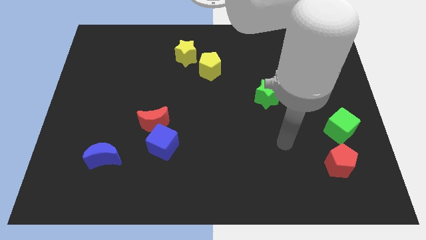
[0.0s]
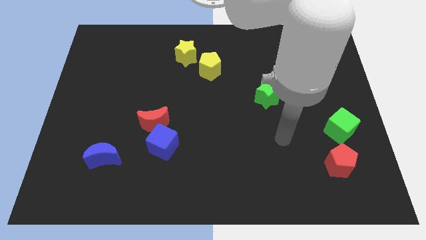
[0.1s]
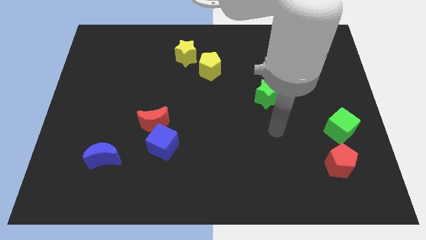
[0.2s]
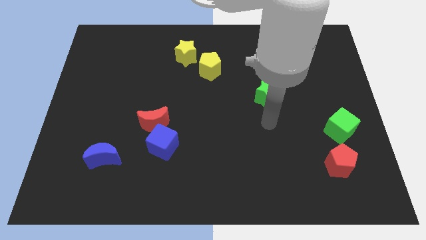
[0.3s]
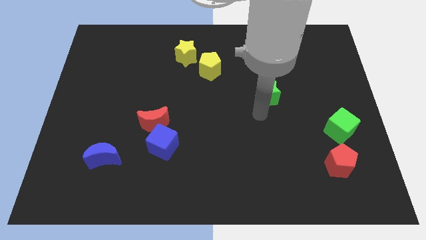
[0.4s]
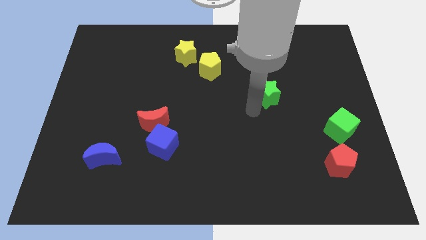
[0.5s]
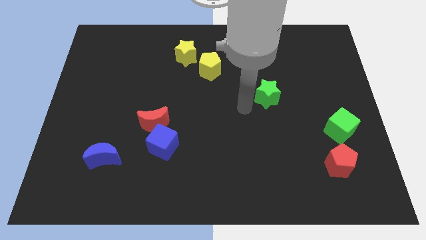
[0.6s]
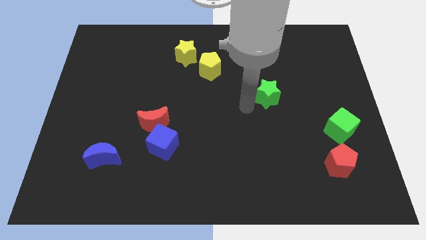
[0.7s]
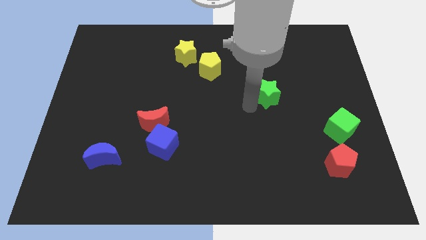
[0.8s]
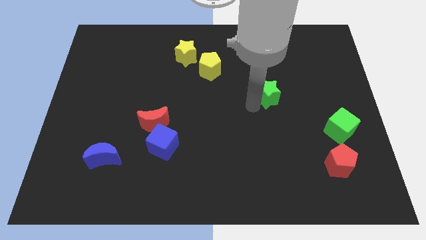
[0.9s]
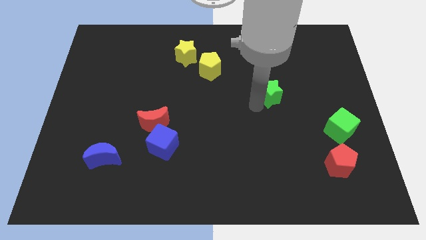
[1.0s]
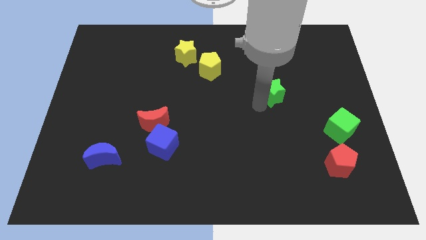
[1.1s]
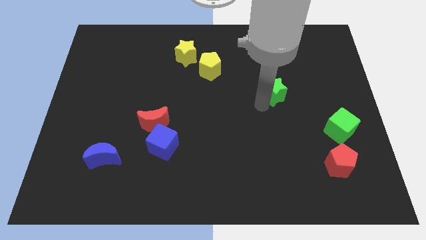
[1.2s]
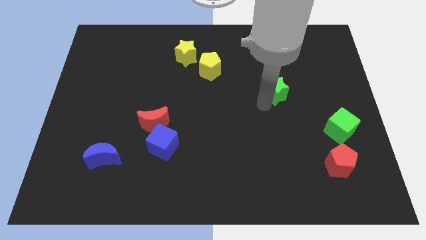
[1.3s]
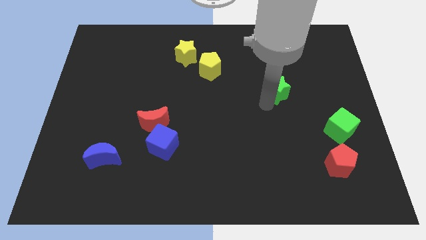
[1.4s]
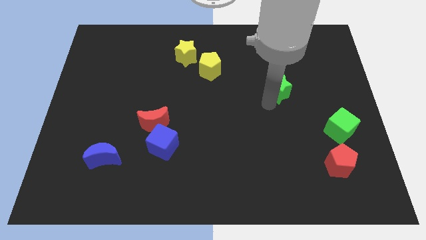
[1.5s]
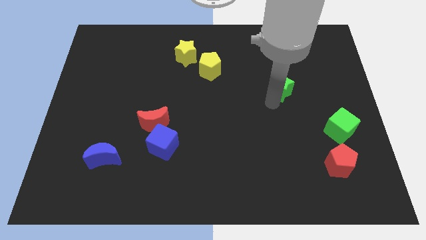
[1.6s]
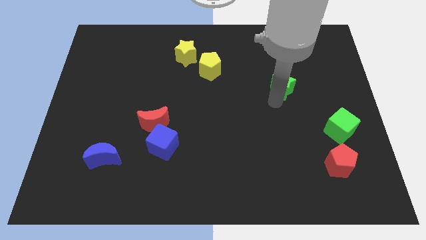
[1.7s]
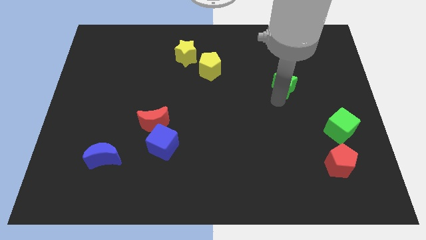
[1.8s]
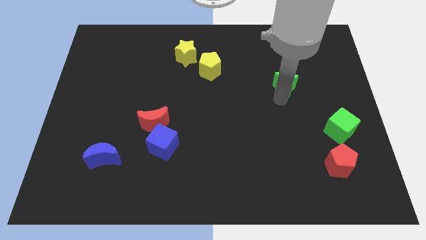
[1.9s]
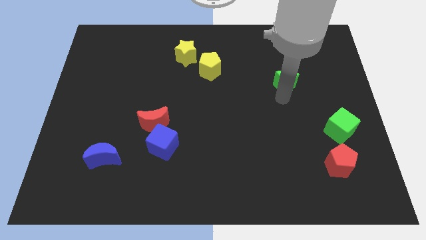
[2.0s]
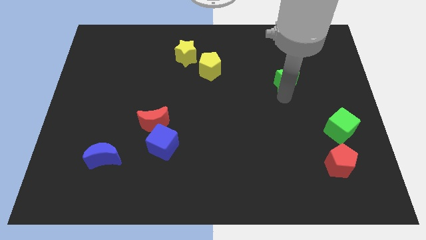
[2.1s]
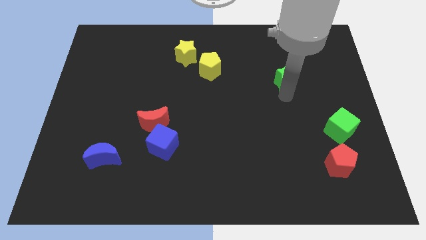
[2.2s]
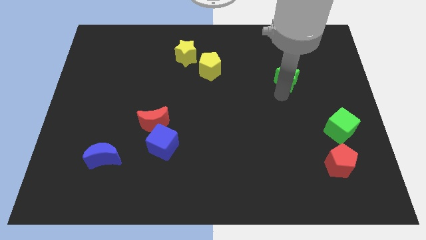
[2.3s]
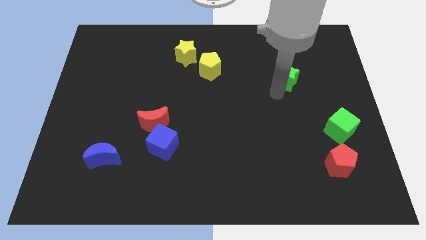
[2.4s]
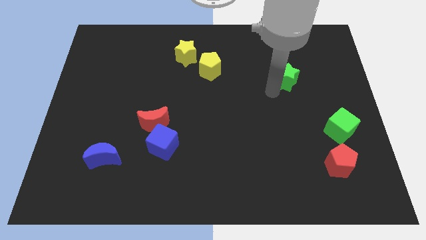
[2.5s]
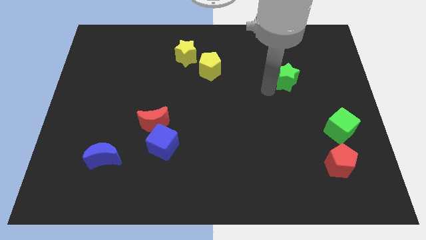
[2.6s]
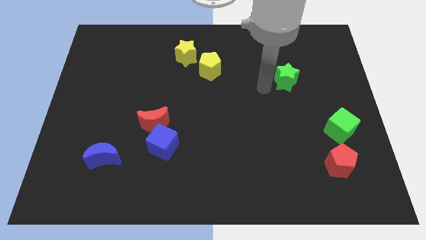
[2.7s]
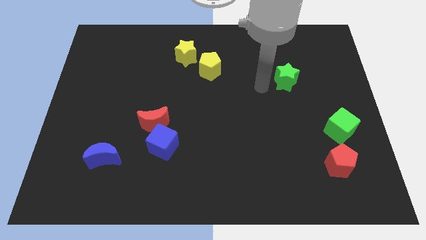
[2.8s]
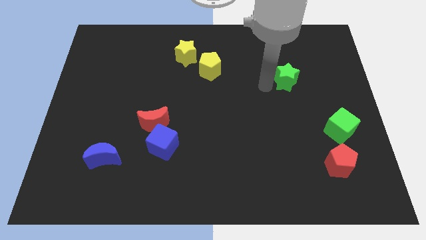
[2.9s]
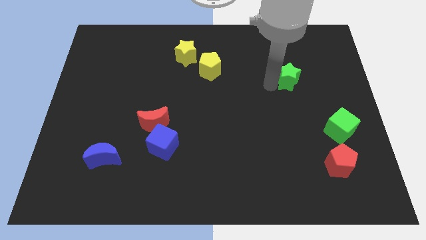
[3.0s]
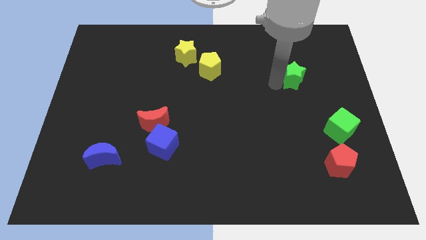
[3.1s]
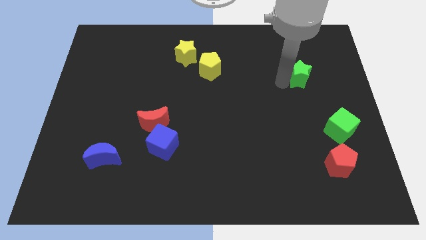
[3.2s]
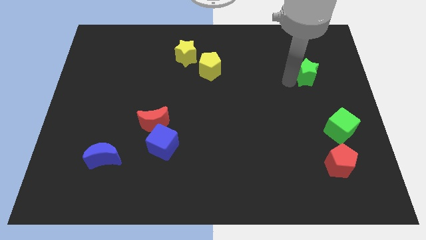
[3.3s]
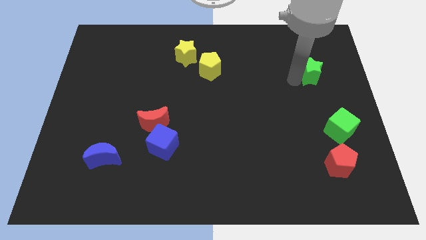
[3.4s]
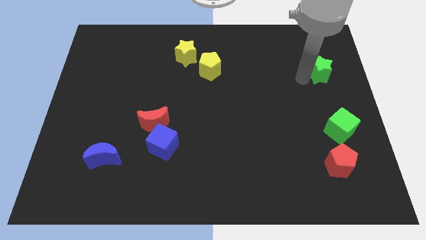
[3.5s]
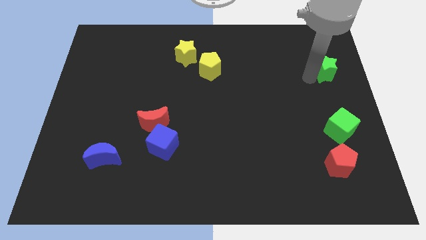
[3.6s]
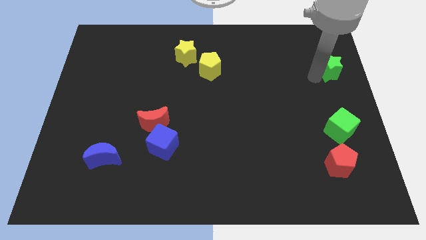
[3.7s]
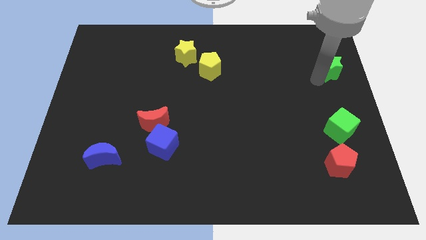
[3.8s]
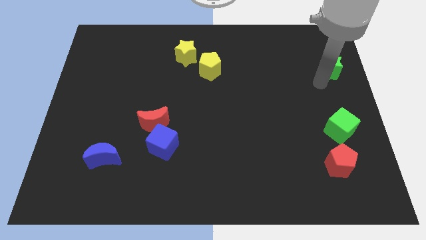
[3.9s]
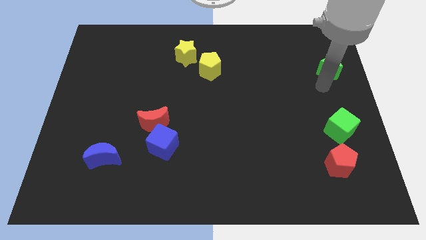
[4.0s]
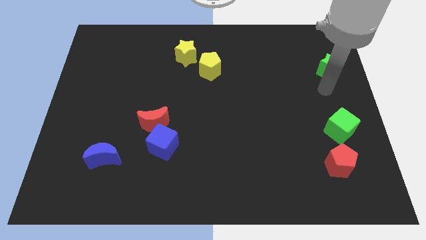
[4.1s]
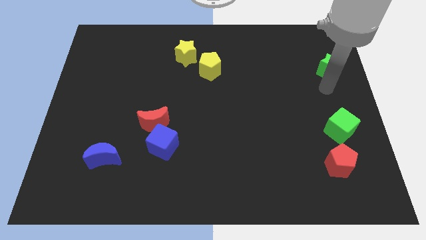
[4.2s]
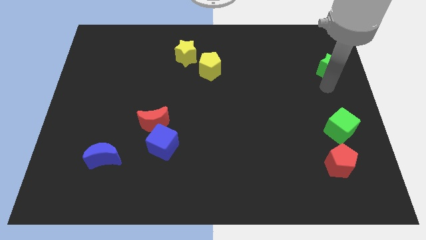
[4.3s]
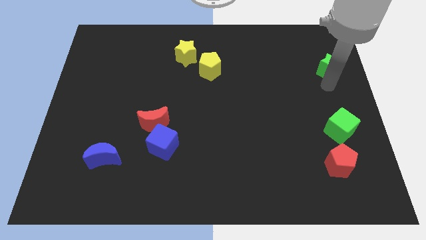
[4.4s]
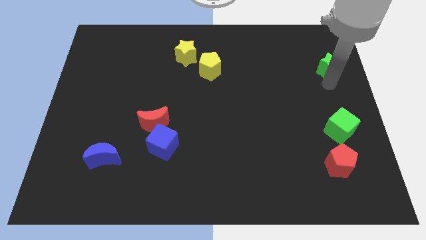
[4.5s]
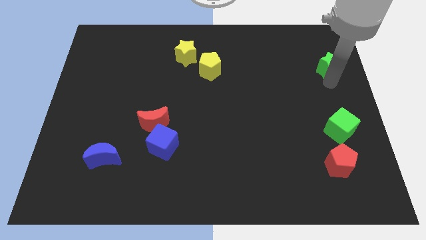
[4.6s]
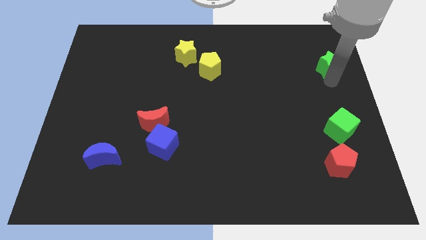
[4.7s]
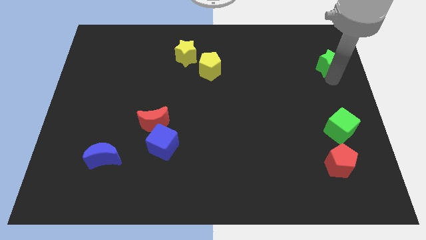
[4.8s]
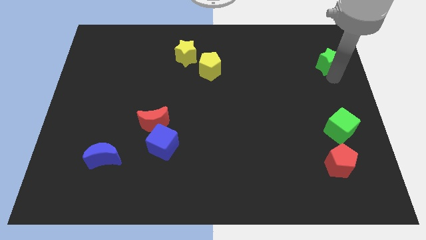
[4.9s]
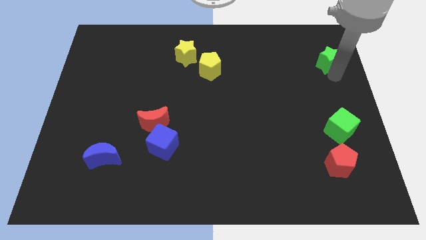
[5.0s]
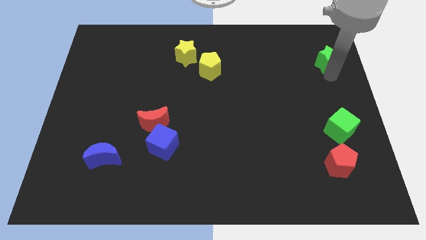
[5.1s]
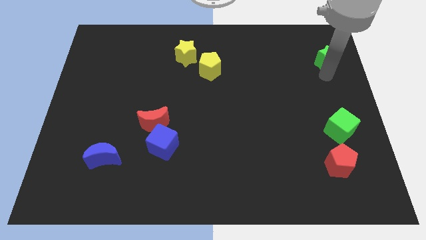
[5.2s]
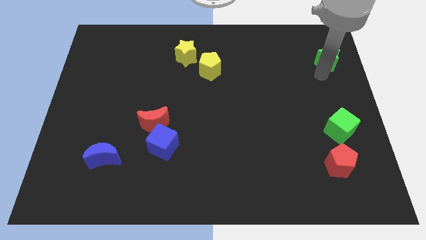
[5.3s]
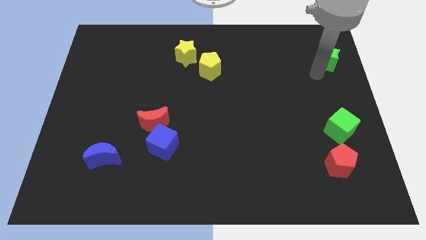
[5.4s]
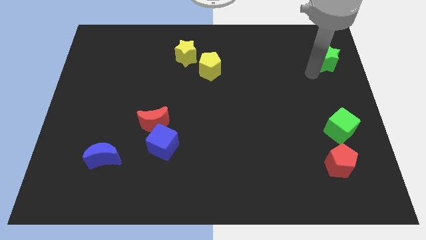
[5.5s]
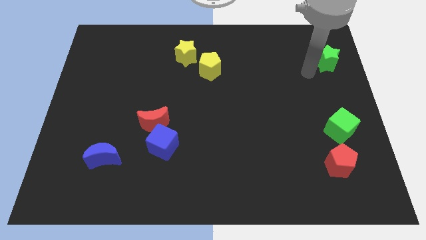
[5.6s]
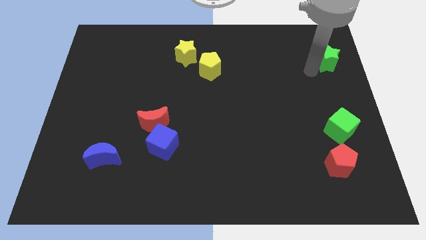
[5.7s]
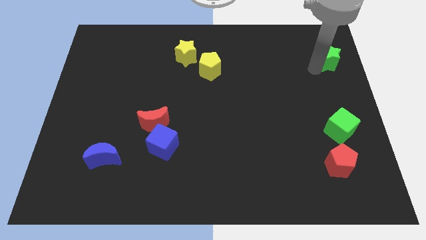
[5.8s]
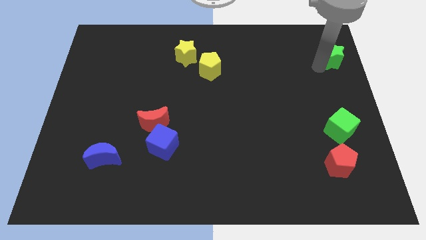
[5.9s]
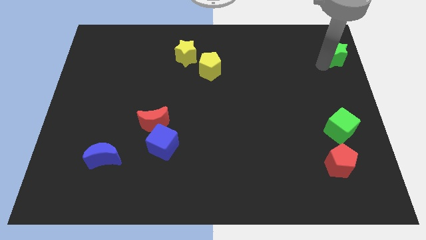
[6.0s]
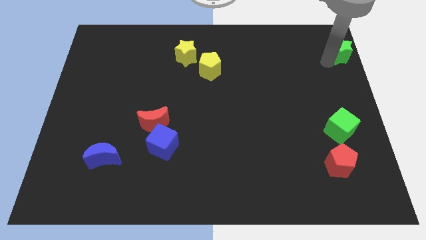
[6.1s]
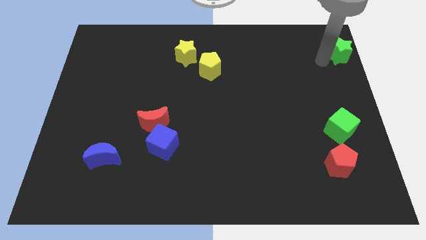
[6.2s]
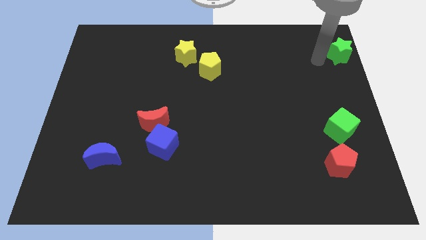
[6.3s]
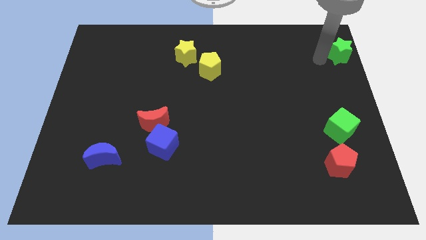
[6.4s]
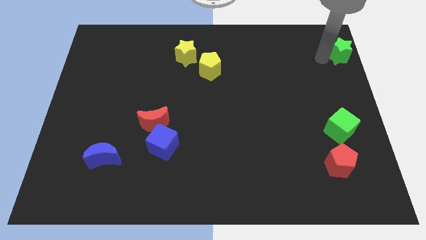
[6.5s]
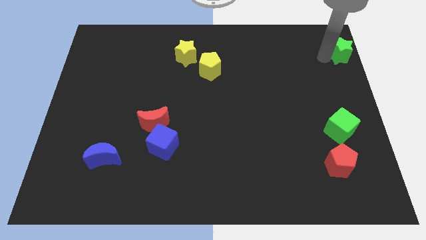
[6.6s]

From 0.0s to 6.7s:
put the green star to the upper right corner
